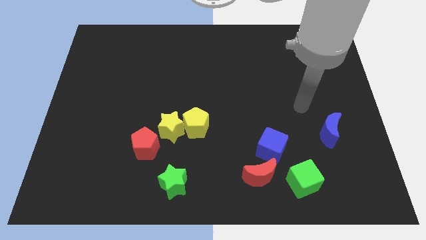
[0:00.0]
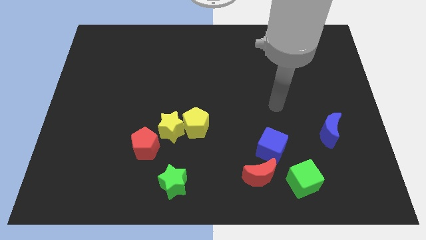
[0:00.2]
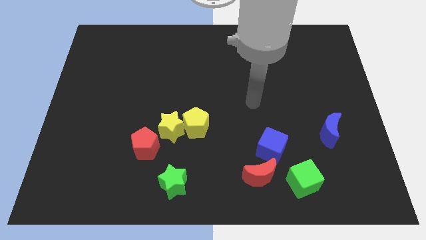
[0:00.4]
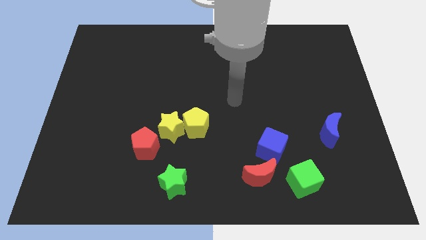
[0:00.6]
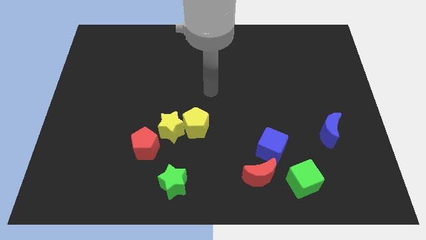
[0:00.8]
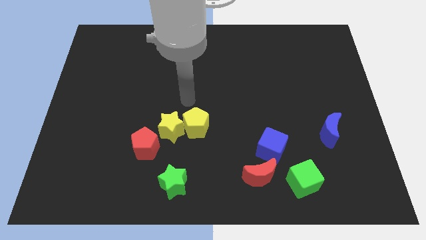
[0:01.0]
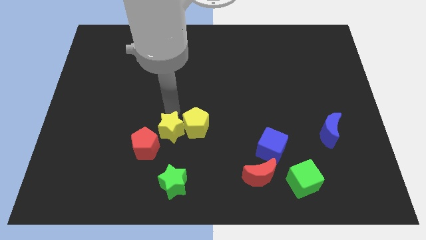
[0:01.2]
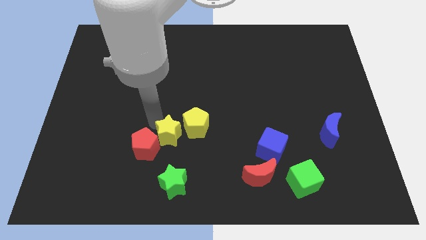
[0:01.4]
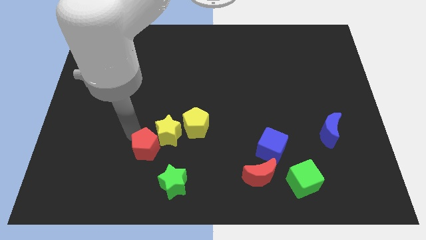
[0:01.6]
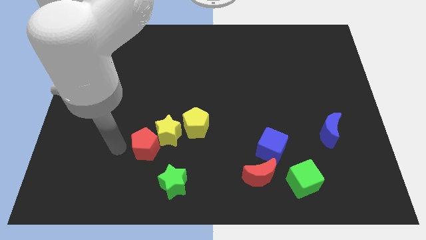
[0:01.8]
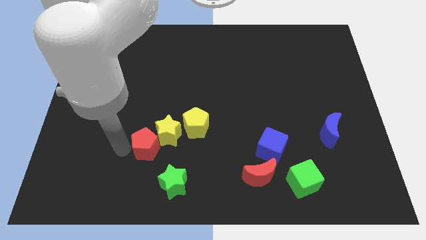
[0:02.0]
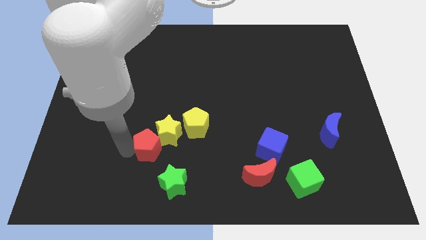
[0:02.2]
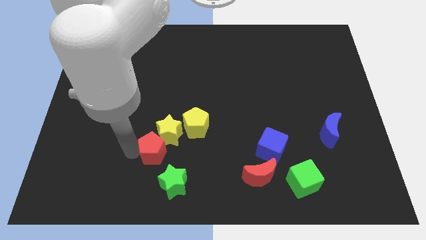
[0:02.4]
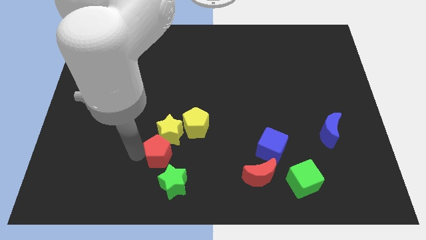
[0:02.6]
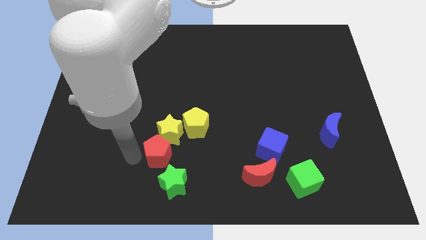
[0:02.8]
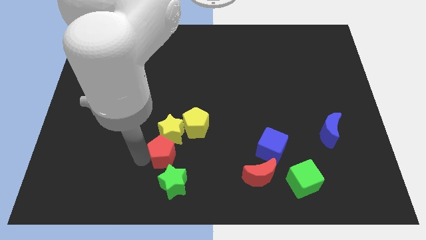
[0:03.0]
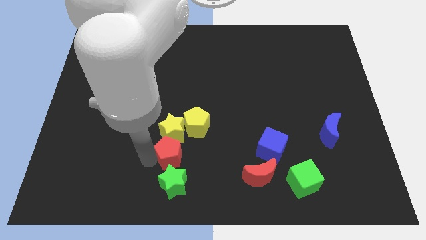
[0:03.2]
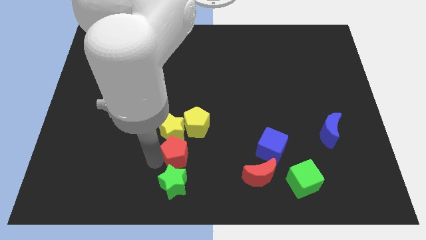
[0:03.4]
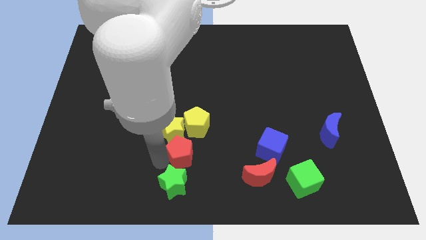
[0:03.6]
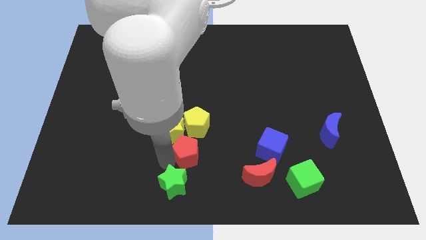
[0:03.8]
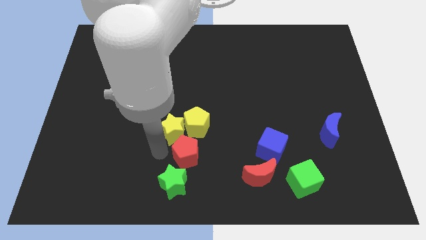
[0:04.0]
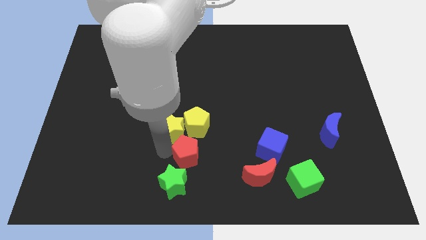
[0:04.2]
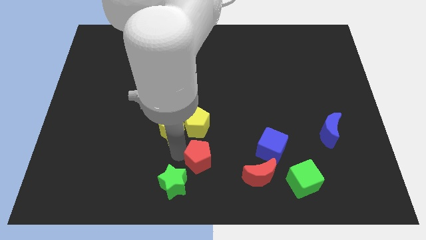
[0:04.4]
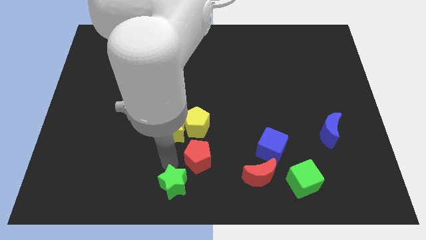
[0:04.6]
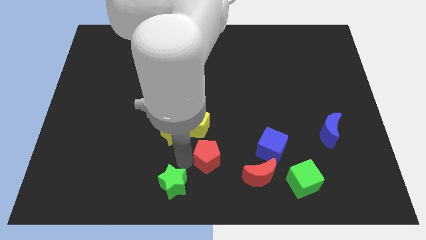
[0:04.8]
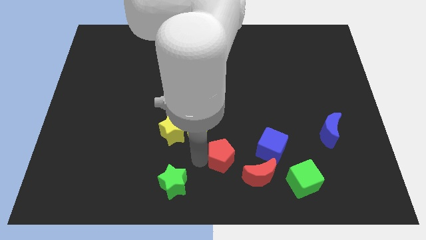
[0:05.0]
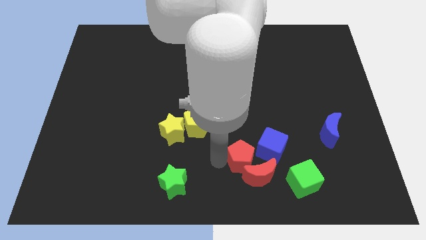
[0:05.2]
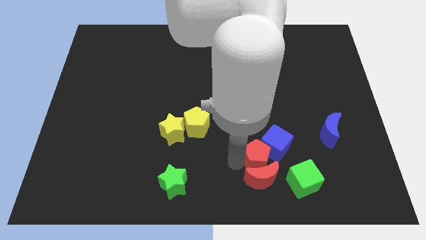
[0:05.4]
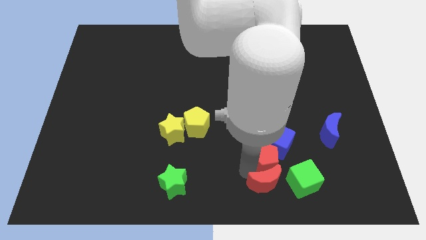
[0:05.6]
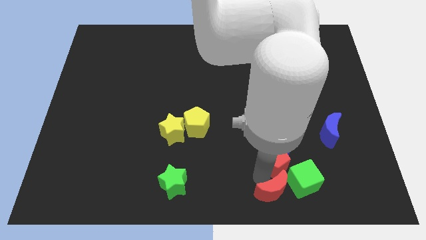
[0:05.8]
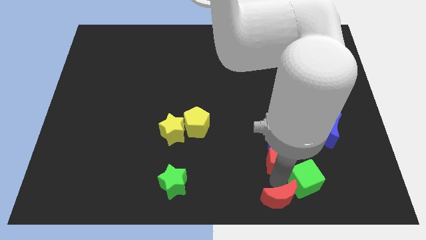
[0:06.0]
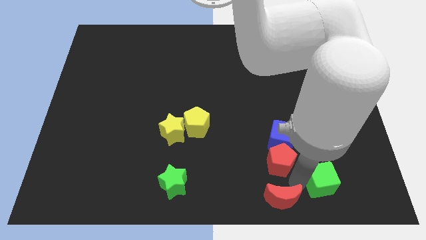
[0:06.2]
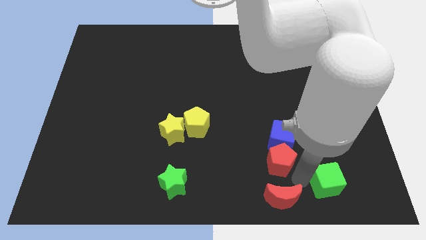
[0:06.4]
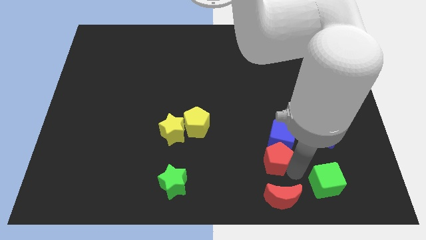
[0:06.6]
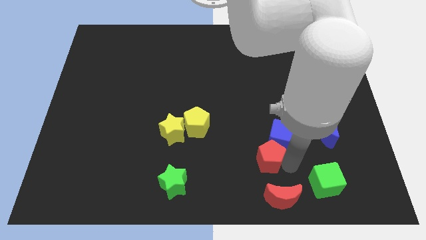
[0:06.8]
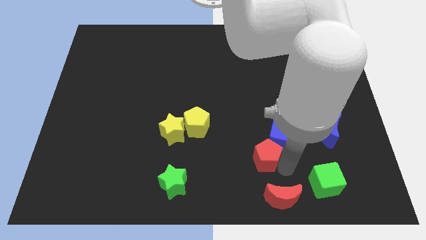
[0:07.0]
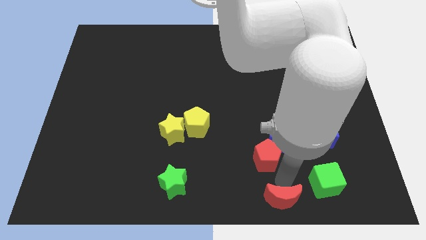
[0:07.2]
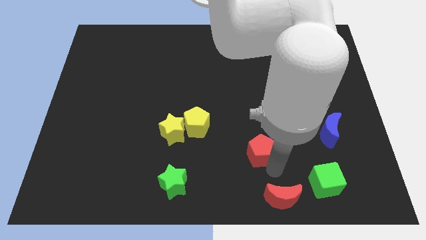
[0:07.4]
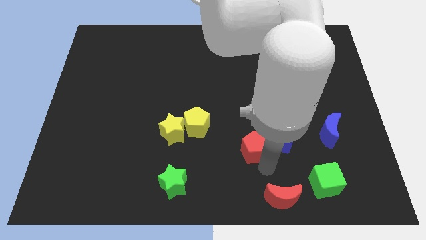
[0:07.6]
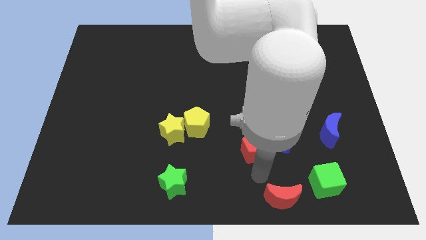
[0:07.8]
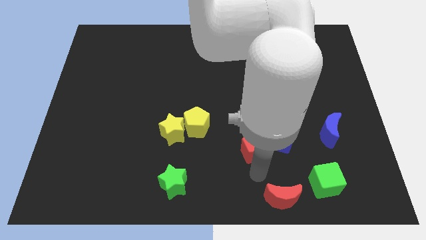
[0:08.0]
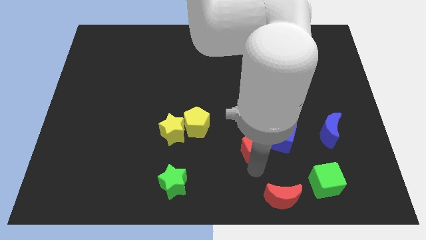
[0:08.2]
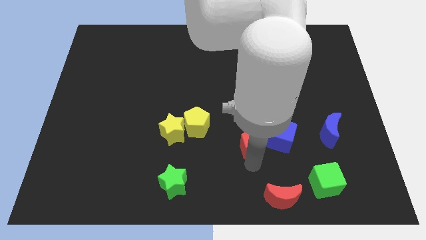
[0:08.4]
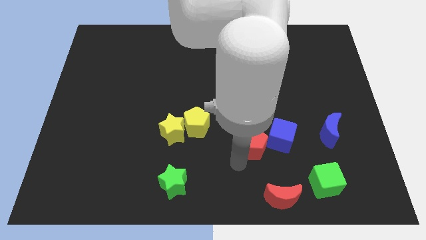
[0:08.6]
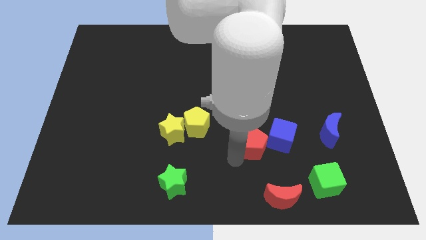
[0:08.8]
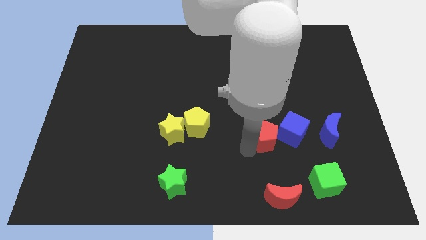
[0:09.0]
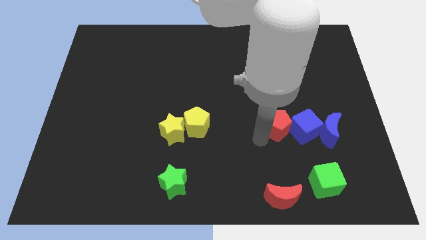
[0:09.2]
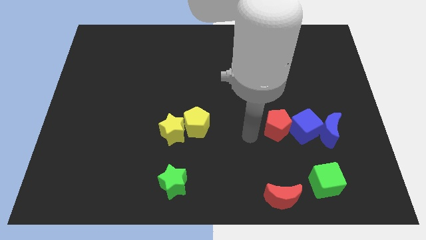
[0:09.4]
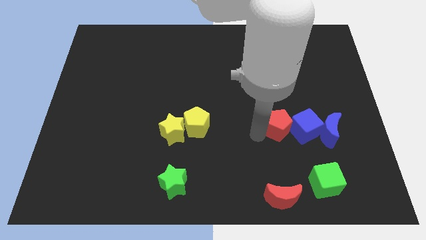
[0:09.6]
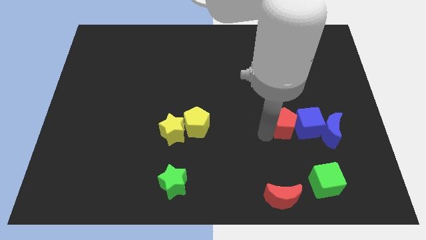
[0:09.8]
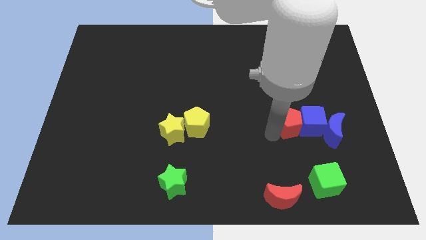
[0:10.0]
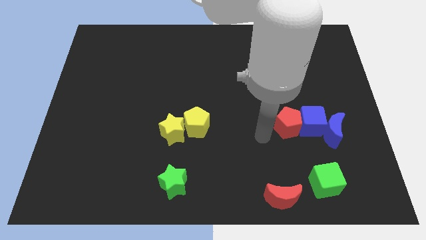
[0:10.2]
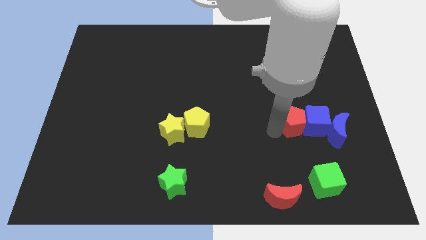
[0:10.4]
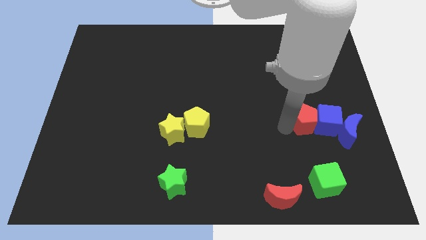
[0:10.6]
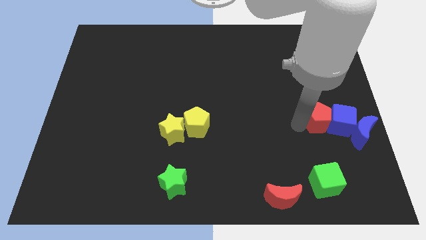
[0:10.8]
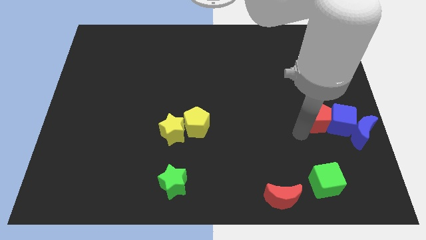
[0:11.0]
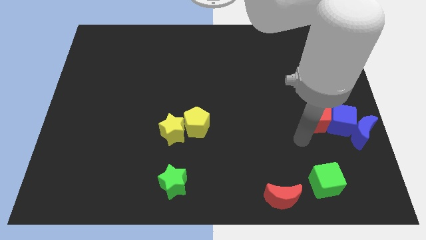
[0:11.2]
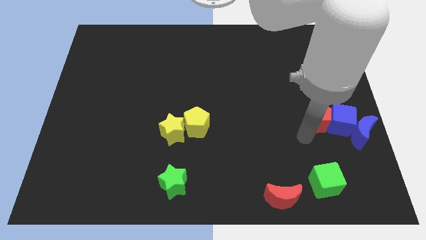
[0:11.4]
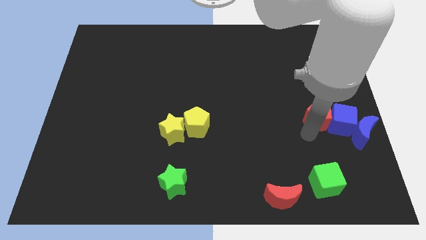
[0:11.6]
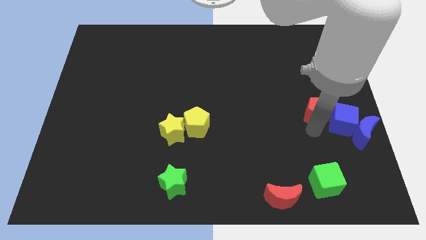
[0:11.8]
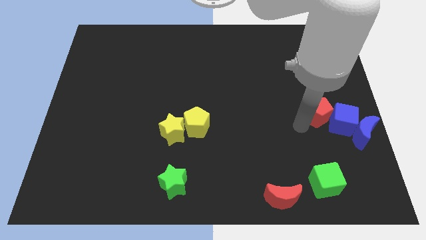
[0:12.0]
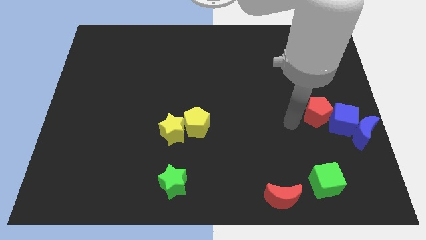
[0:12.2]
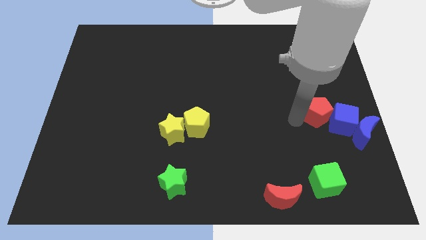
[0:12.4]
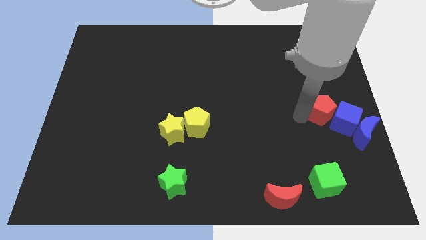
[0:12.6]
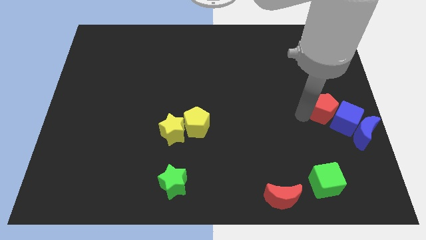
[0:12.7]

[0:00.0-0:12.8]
move the red pentagon to the right side of the board

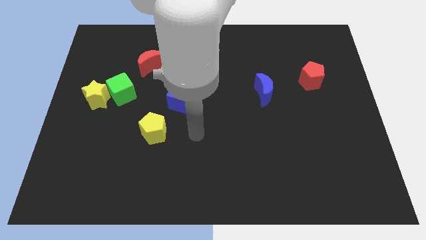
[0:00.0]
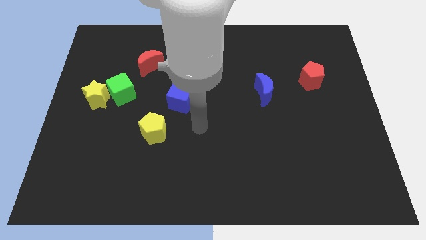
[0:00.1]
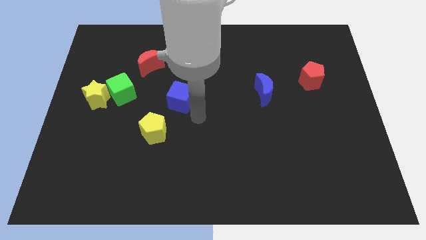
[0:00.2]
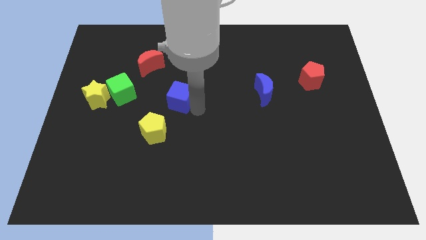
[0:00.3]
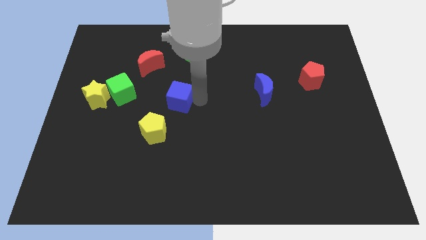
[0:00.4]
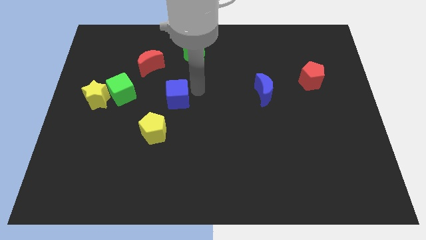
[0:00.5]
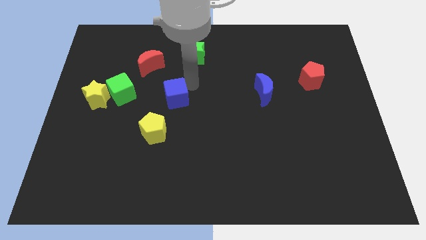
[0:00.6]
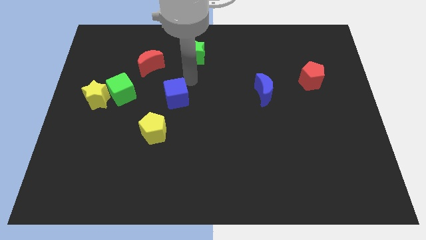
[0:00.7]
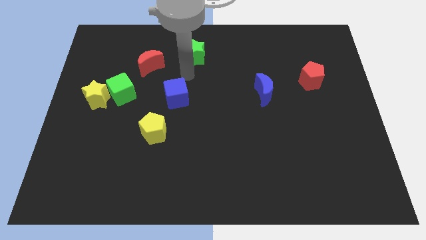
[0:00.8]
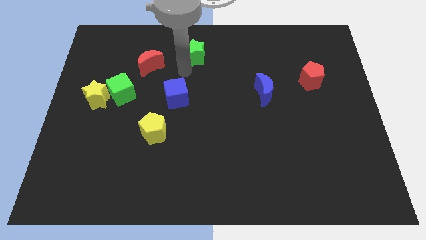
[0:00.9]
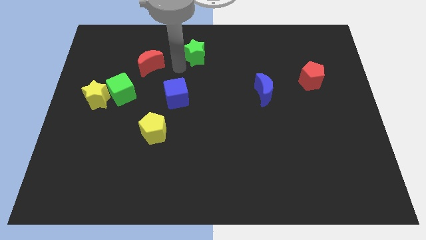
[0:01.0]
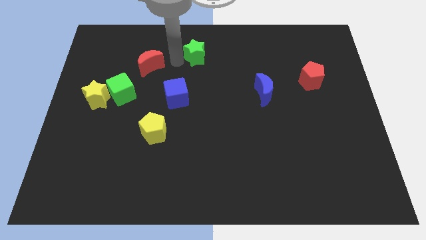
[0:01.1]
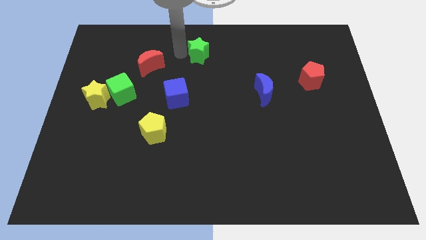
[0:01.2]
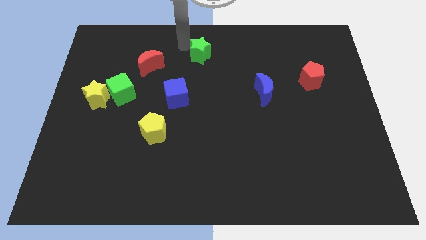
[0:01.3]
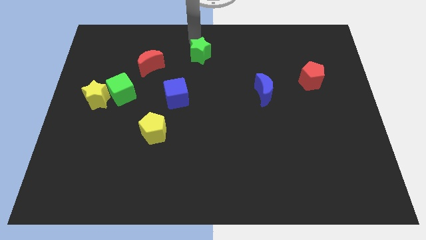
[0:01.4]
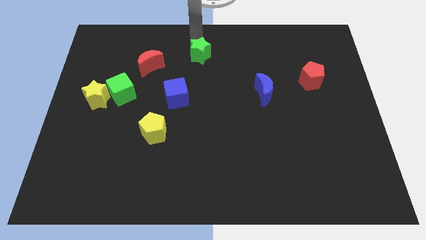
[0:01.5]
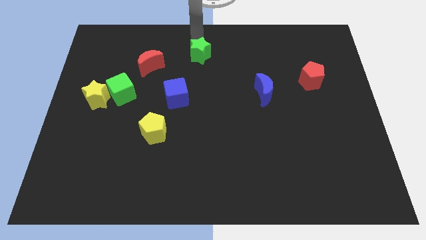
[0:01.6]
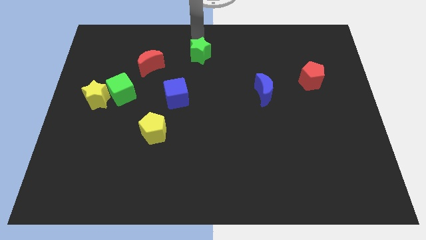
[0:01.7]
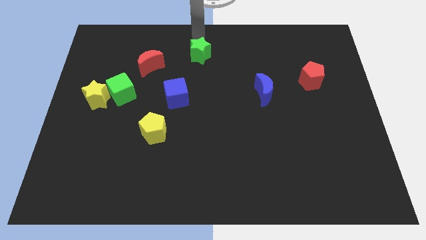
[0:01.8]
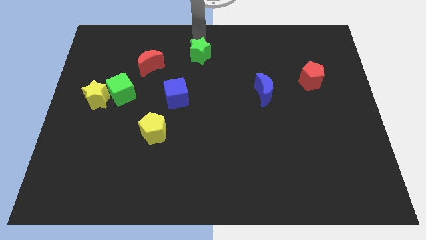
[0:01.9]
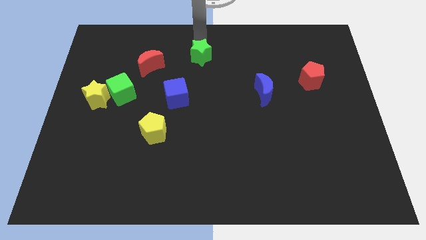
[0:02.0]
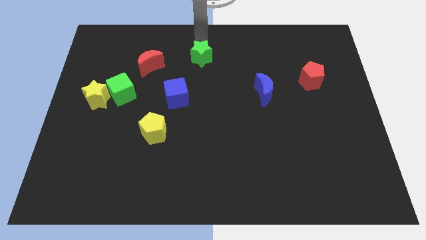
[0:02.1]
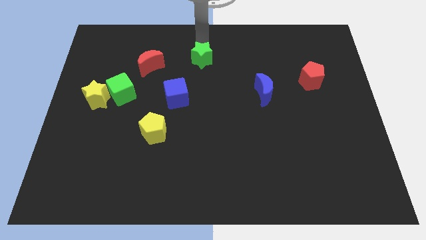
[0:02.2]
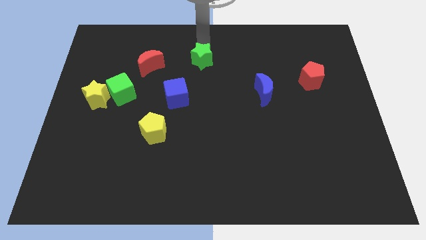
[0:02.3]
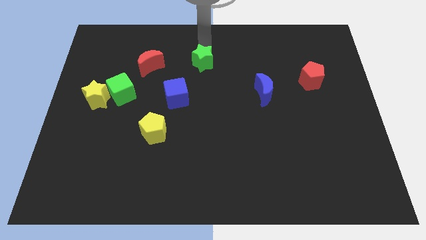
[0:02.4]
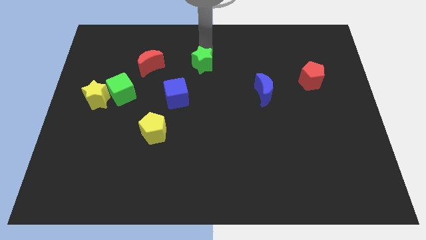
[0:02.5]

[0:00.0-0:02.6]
push the green star to the middle of the board
